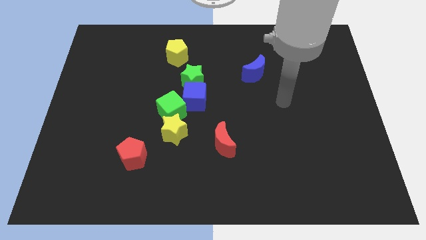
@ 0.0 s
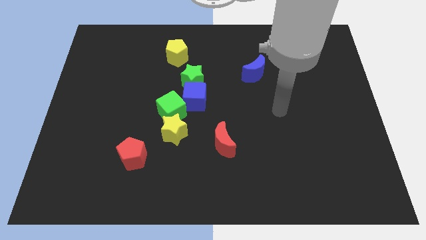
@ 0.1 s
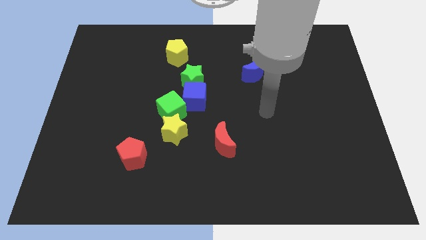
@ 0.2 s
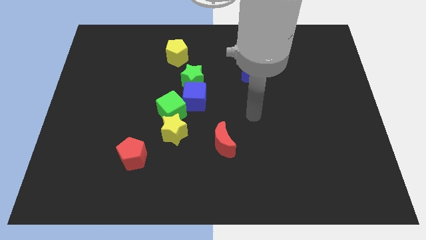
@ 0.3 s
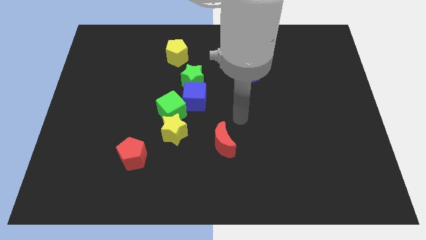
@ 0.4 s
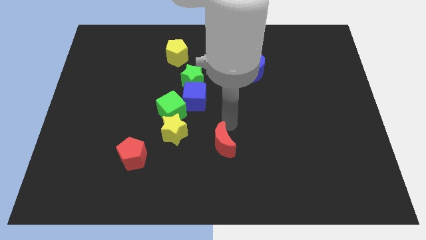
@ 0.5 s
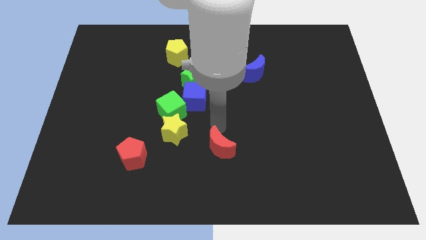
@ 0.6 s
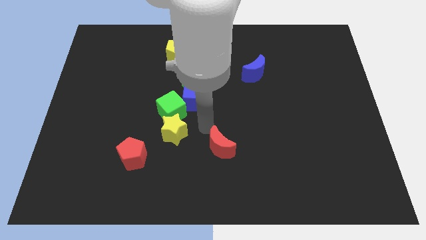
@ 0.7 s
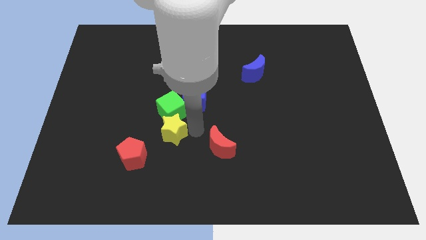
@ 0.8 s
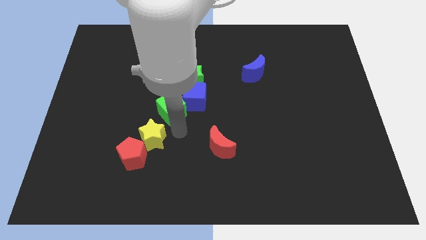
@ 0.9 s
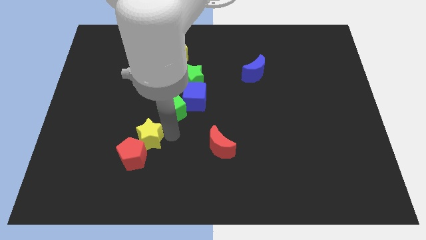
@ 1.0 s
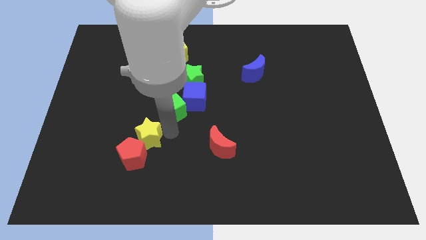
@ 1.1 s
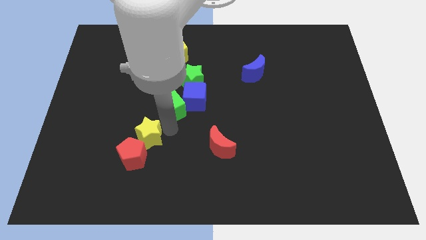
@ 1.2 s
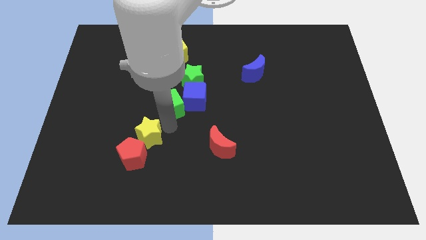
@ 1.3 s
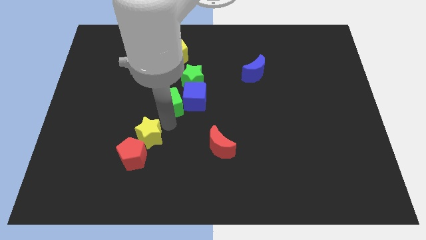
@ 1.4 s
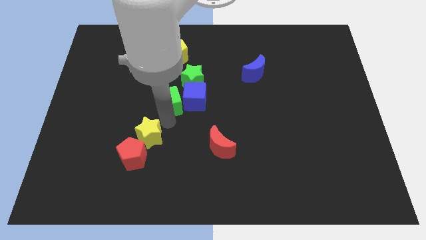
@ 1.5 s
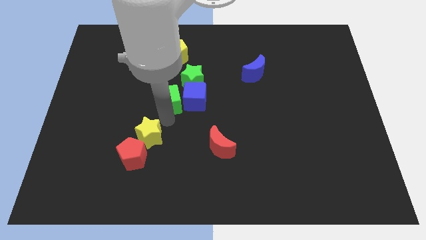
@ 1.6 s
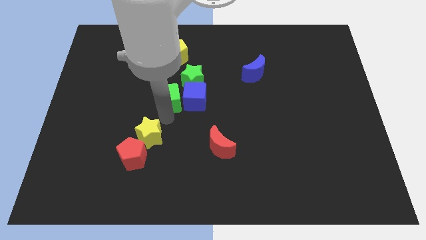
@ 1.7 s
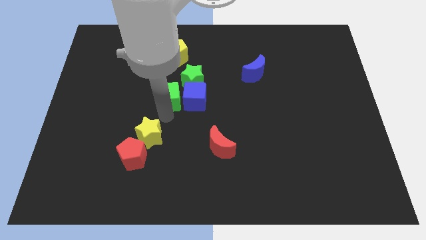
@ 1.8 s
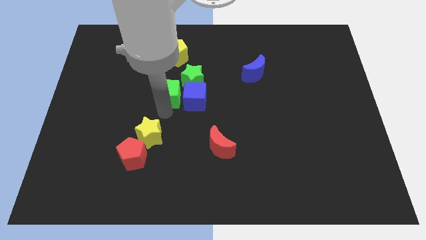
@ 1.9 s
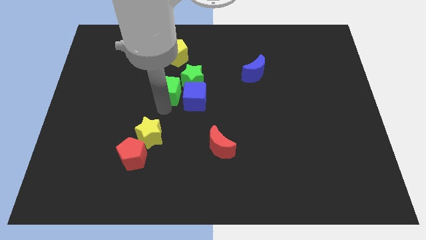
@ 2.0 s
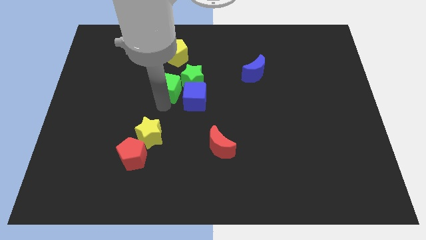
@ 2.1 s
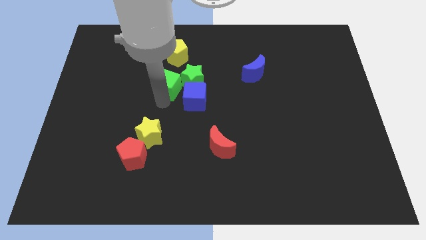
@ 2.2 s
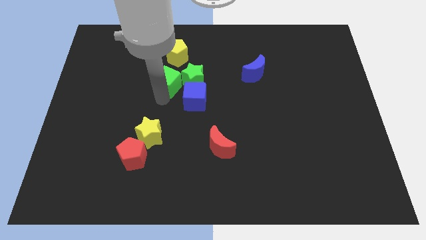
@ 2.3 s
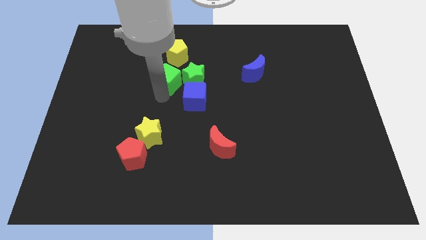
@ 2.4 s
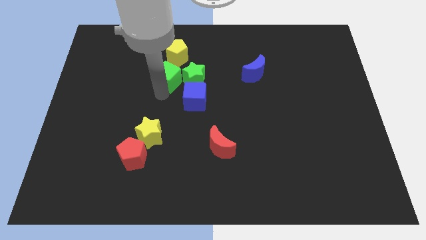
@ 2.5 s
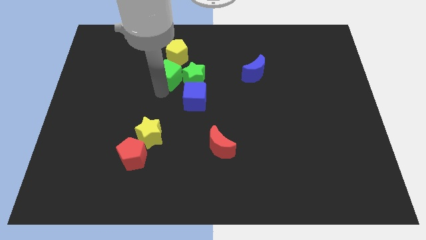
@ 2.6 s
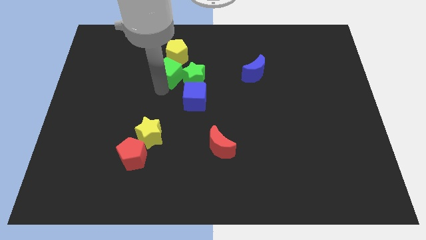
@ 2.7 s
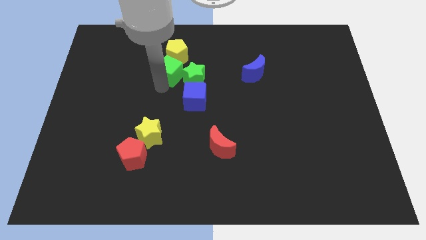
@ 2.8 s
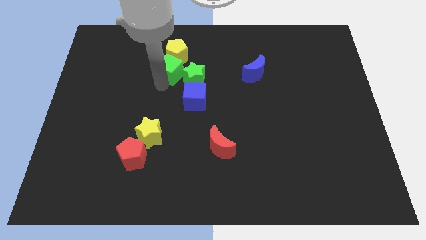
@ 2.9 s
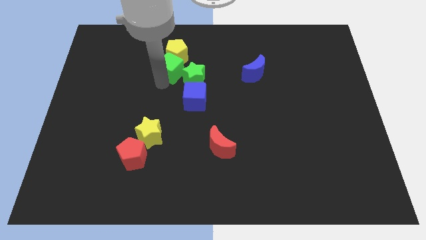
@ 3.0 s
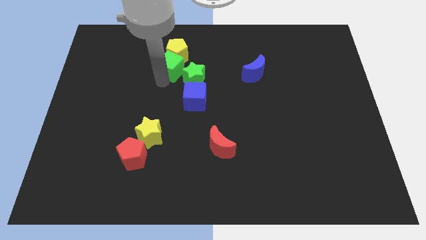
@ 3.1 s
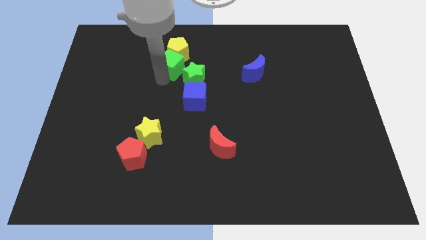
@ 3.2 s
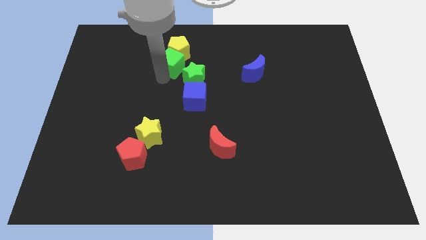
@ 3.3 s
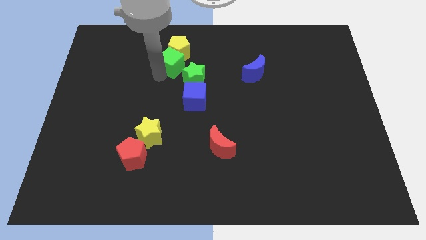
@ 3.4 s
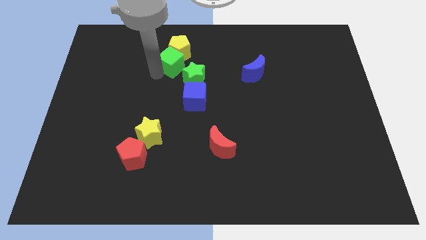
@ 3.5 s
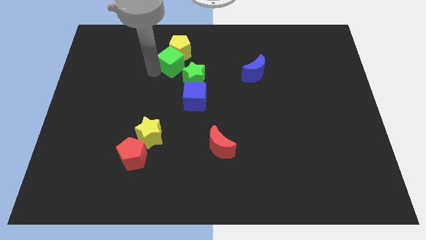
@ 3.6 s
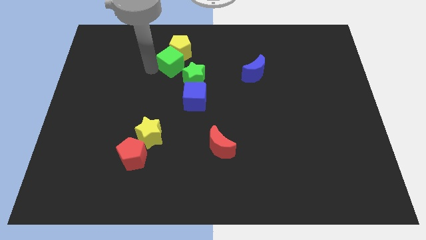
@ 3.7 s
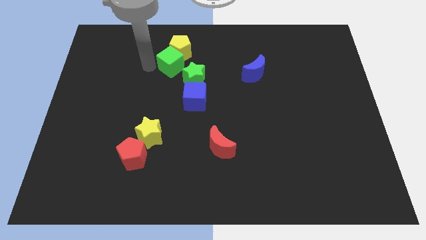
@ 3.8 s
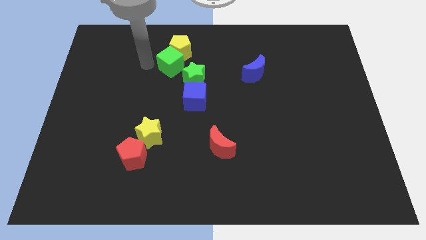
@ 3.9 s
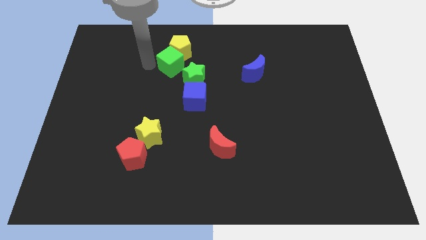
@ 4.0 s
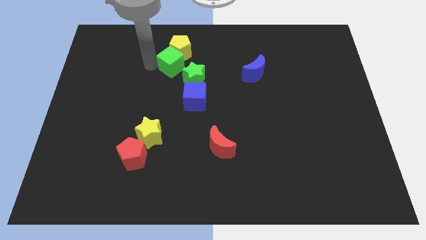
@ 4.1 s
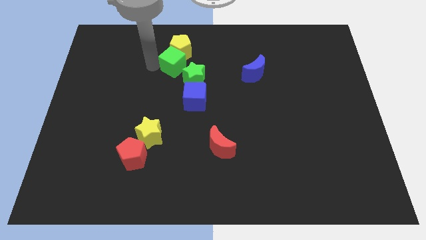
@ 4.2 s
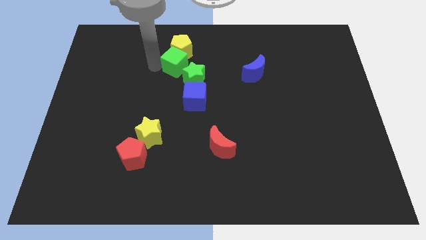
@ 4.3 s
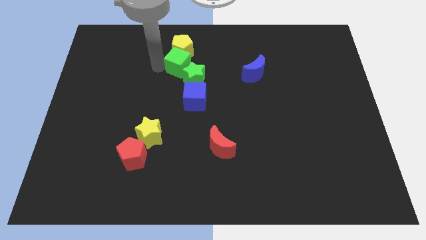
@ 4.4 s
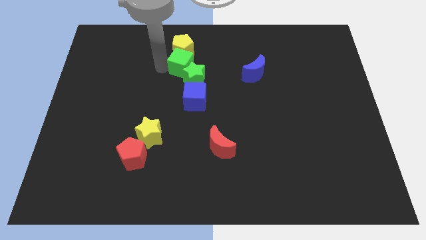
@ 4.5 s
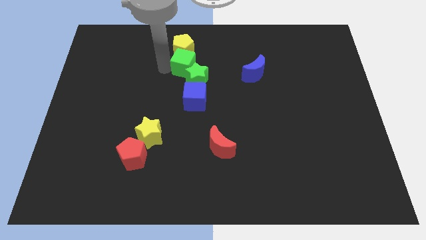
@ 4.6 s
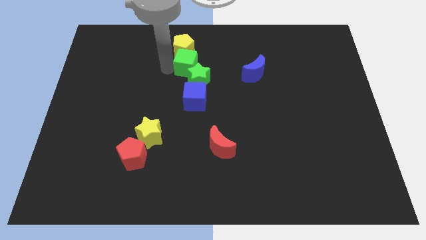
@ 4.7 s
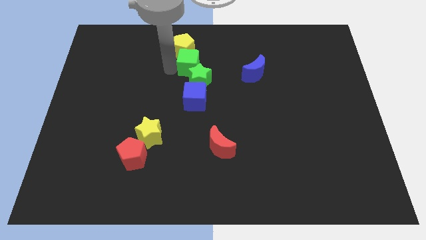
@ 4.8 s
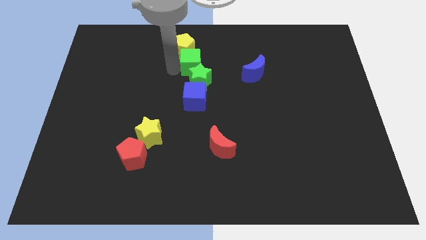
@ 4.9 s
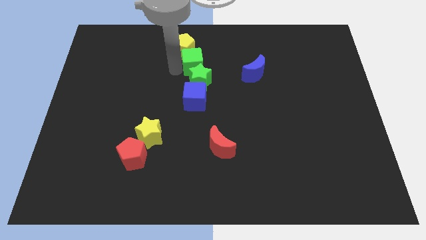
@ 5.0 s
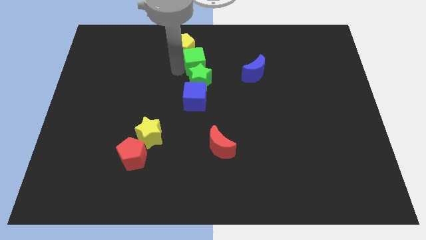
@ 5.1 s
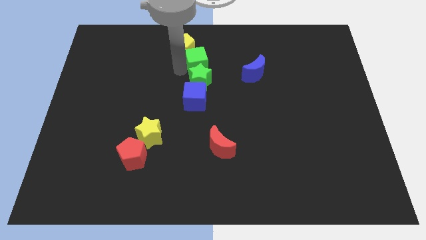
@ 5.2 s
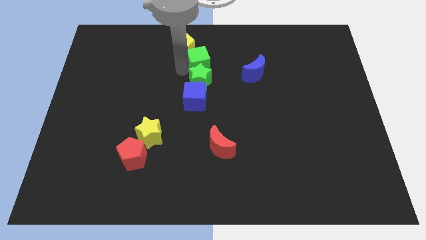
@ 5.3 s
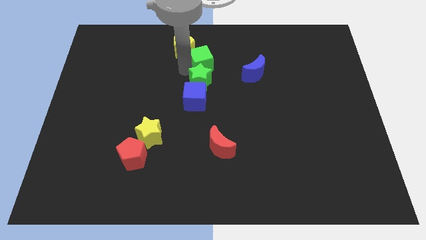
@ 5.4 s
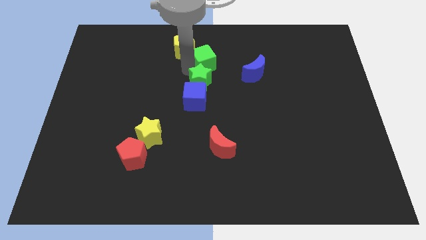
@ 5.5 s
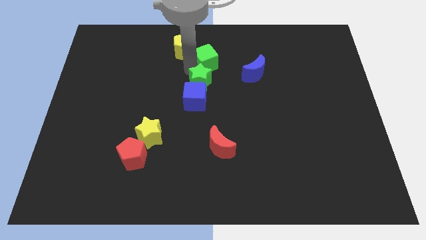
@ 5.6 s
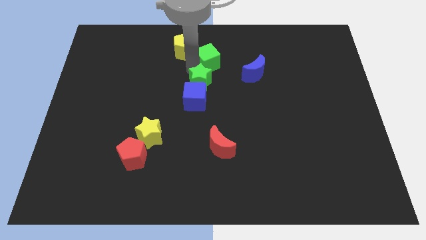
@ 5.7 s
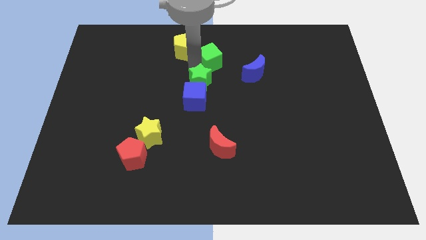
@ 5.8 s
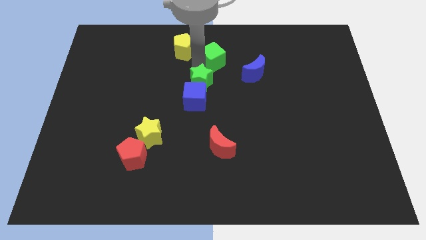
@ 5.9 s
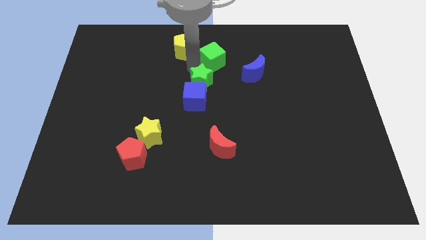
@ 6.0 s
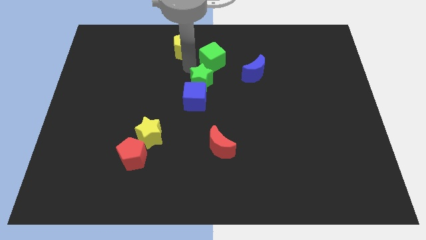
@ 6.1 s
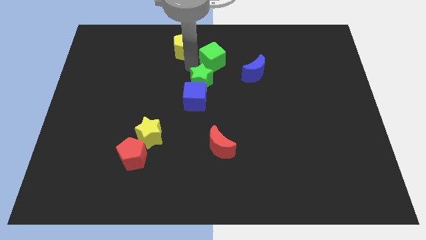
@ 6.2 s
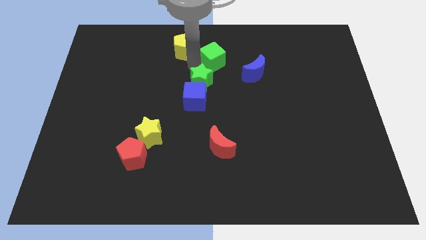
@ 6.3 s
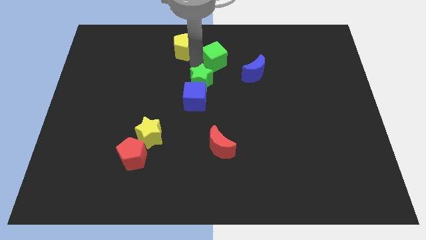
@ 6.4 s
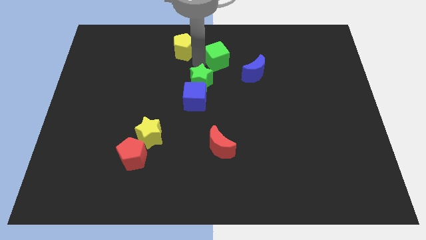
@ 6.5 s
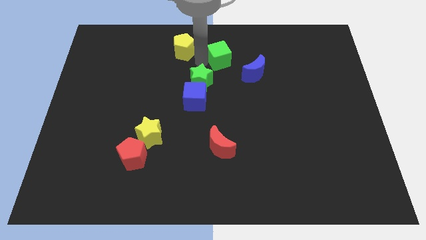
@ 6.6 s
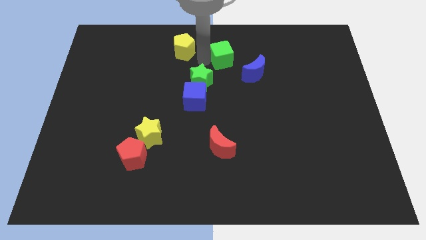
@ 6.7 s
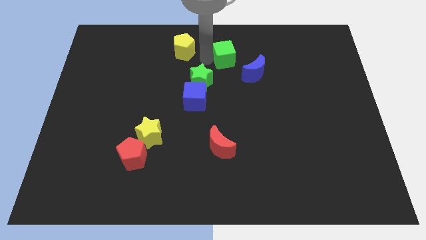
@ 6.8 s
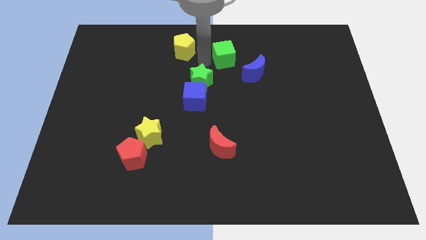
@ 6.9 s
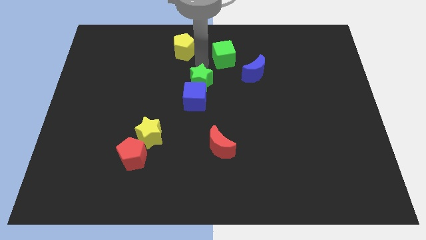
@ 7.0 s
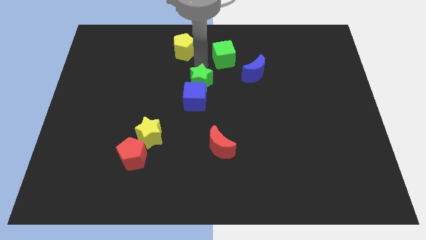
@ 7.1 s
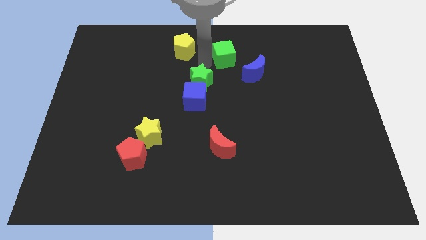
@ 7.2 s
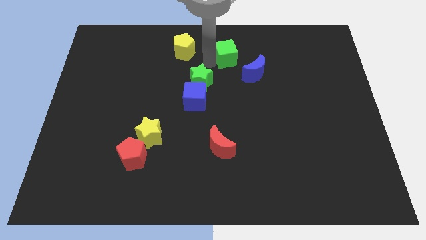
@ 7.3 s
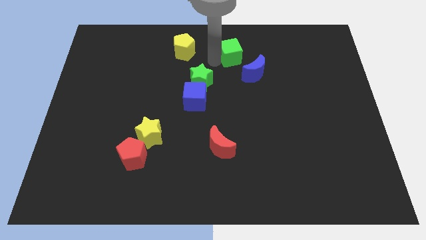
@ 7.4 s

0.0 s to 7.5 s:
move the green cube to the top
